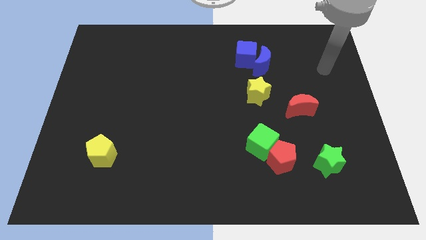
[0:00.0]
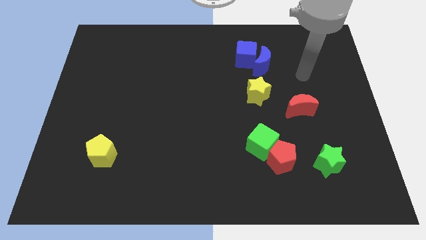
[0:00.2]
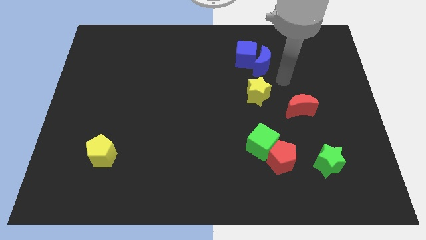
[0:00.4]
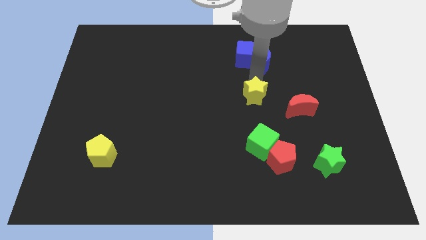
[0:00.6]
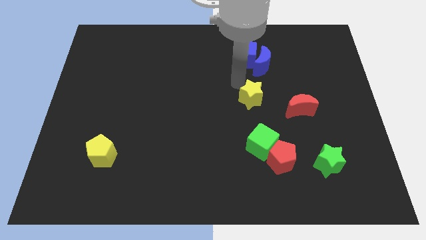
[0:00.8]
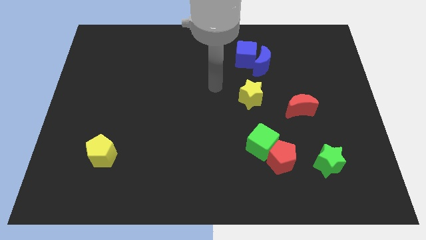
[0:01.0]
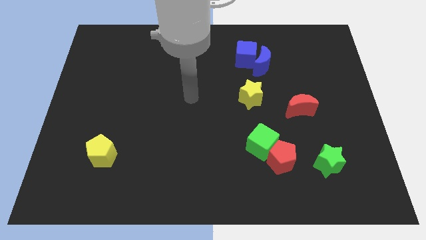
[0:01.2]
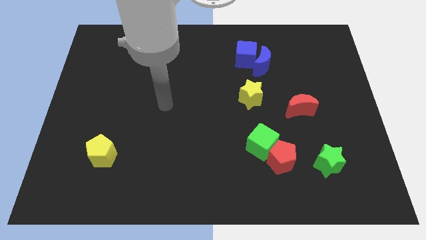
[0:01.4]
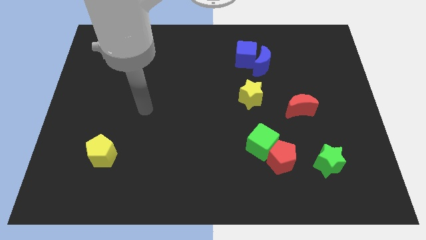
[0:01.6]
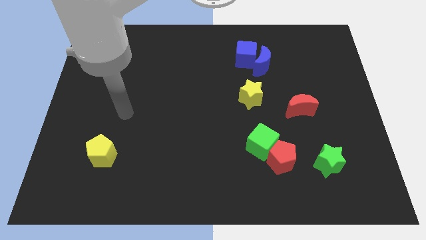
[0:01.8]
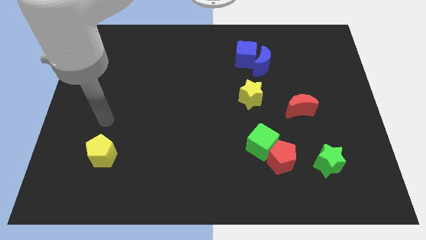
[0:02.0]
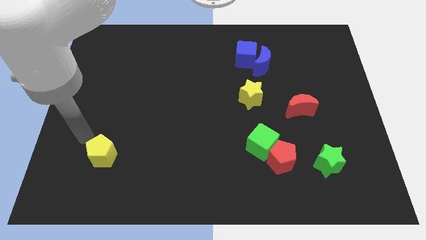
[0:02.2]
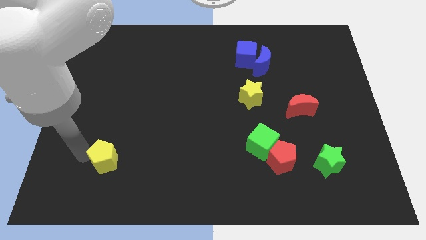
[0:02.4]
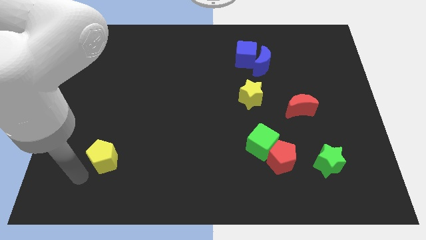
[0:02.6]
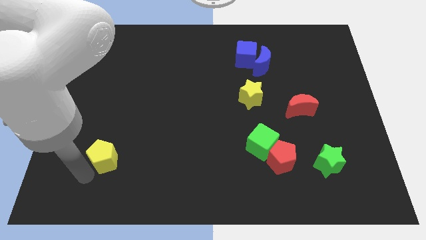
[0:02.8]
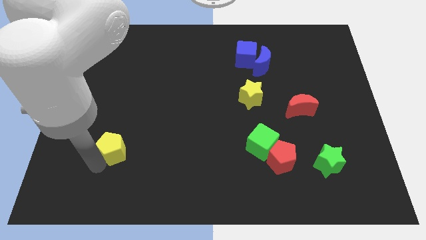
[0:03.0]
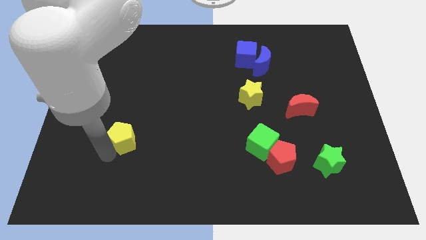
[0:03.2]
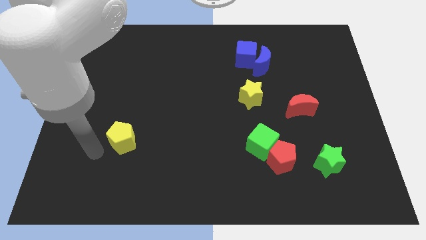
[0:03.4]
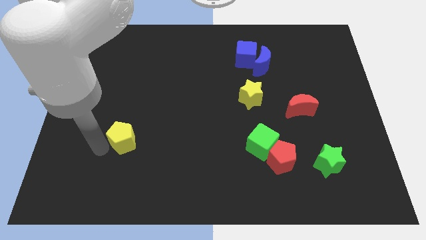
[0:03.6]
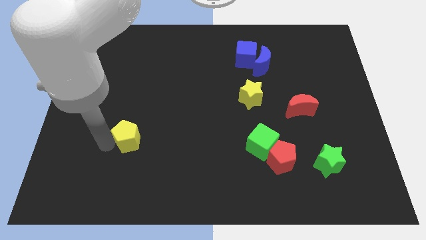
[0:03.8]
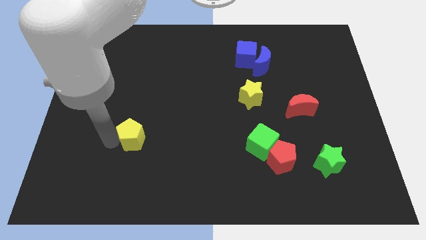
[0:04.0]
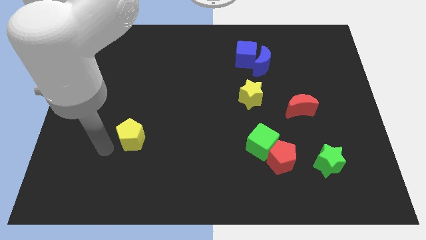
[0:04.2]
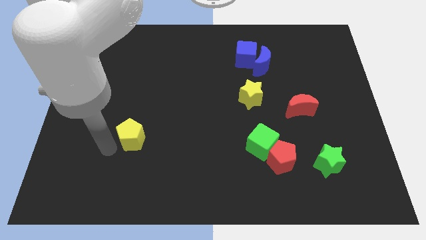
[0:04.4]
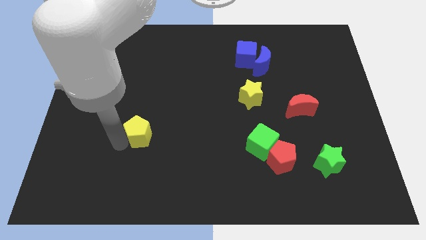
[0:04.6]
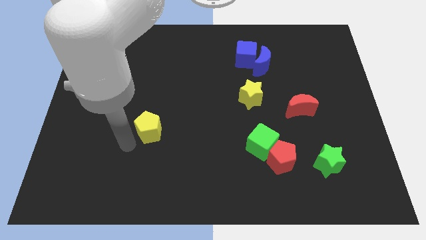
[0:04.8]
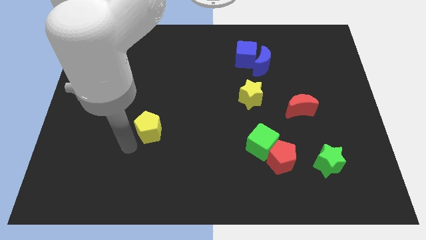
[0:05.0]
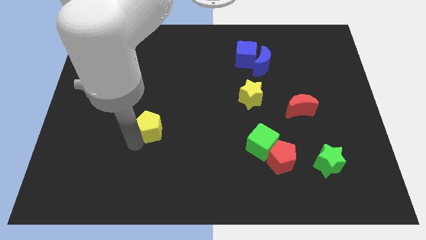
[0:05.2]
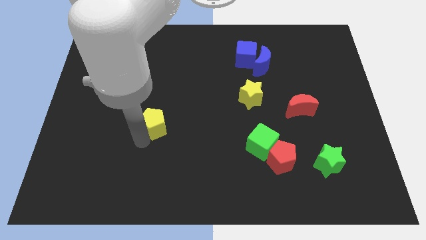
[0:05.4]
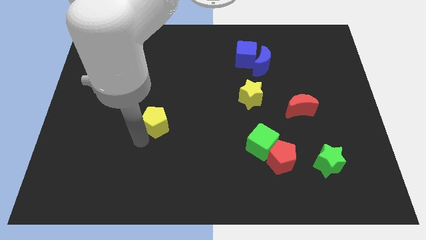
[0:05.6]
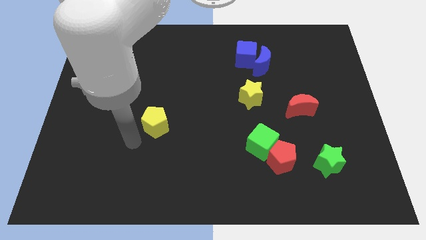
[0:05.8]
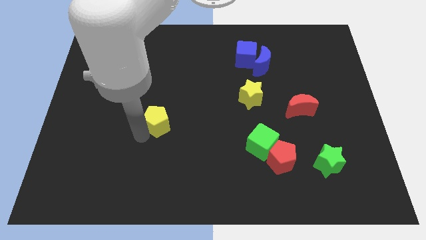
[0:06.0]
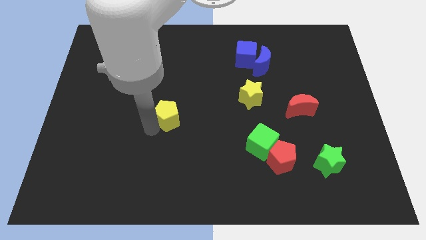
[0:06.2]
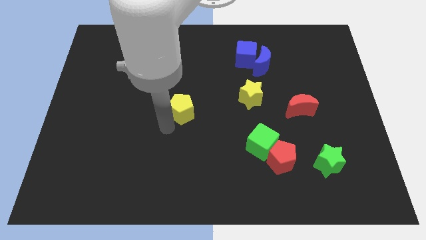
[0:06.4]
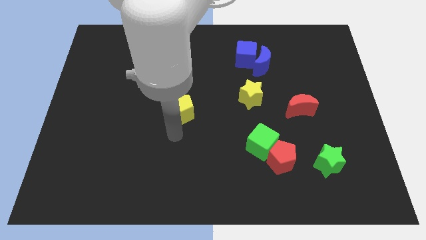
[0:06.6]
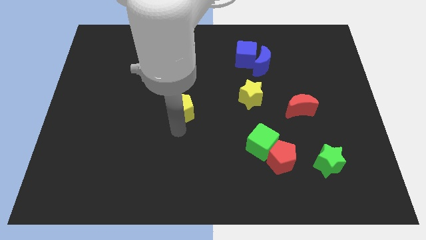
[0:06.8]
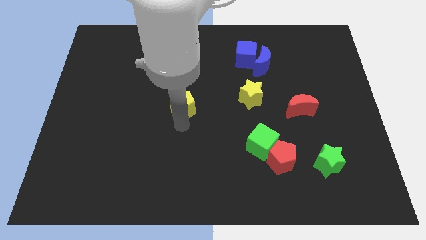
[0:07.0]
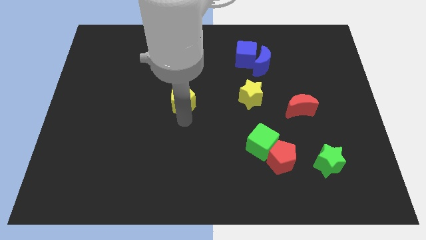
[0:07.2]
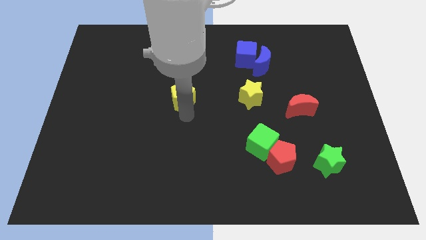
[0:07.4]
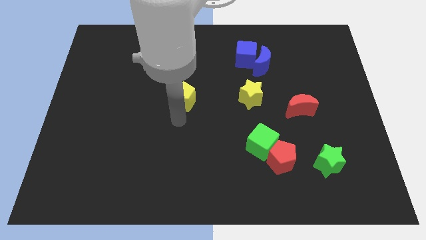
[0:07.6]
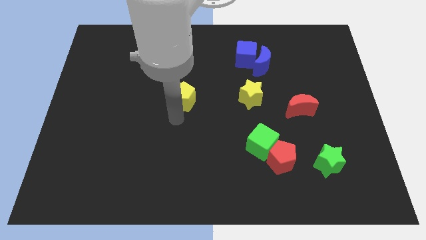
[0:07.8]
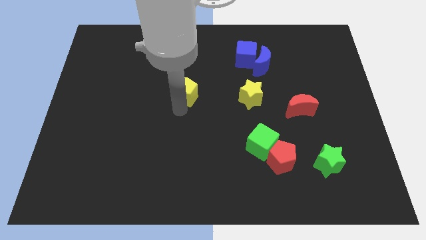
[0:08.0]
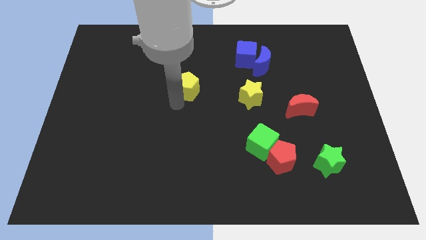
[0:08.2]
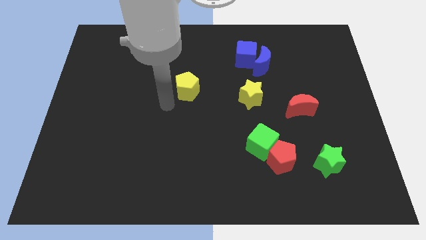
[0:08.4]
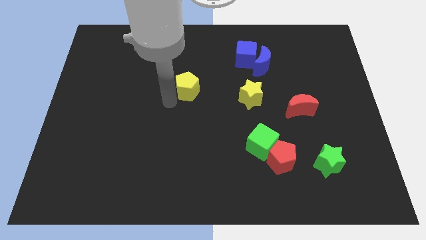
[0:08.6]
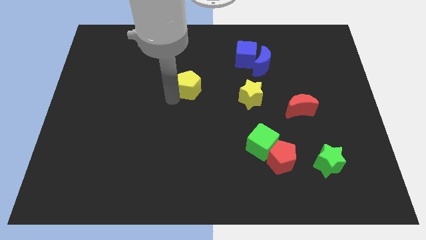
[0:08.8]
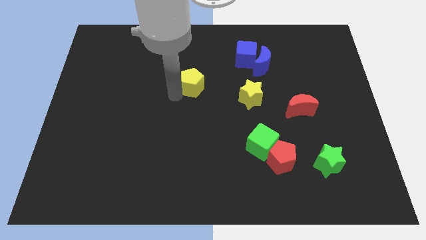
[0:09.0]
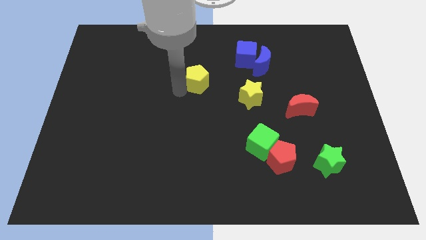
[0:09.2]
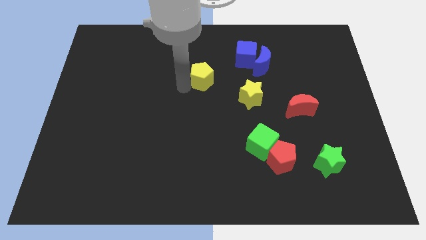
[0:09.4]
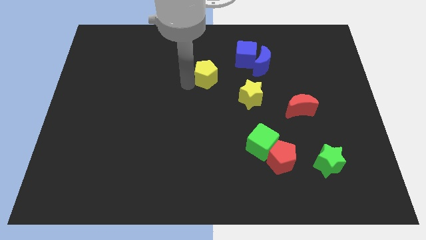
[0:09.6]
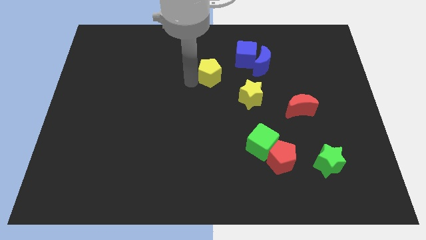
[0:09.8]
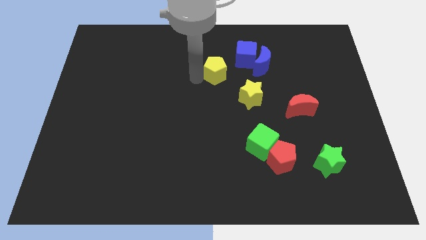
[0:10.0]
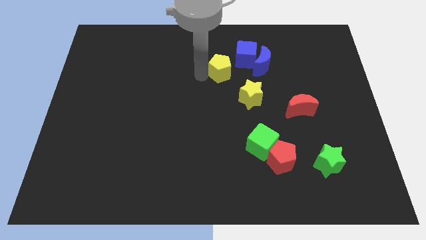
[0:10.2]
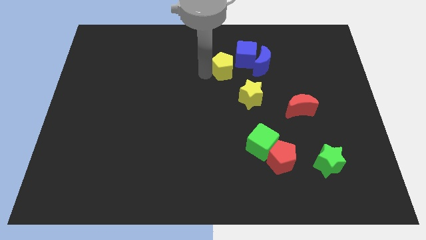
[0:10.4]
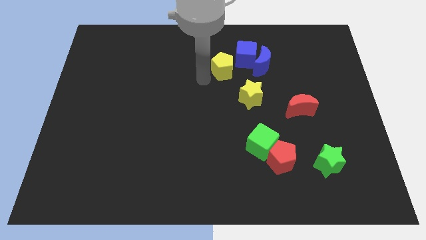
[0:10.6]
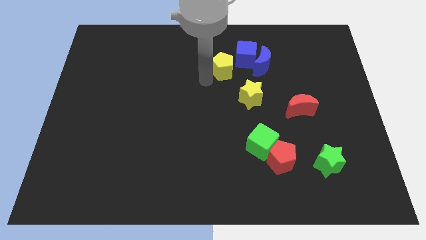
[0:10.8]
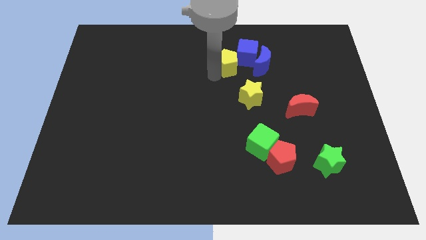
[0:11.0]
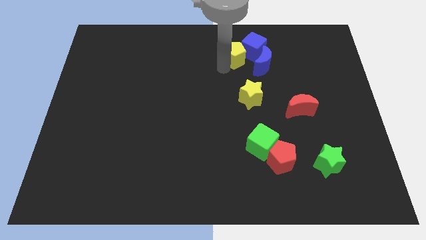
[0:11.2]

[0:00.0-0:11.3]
push the yellow pentagon next to the blue cube

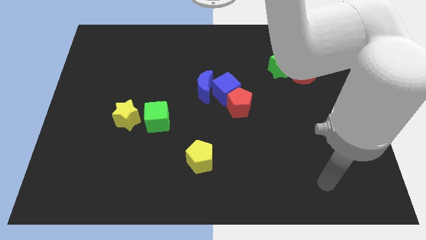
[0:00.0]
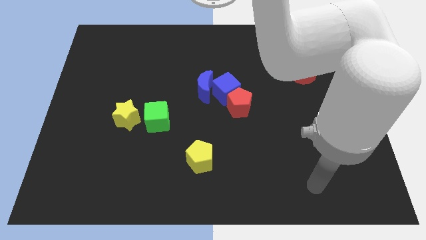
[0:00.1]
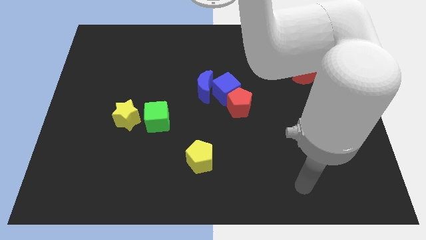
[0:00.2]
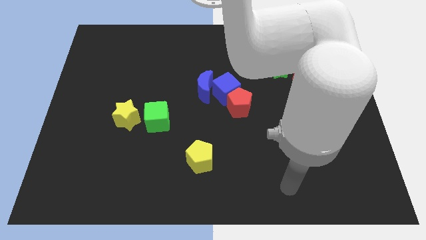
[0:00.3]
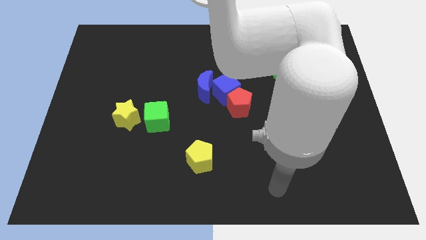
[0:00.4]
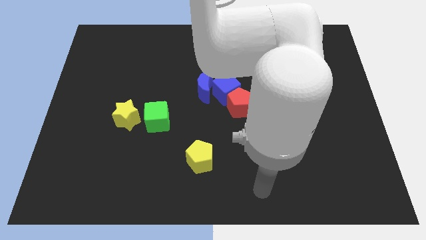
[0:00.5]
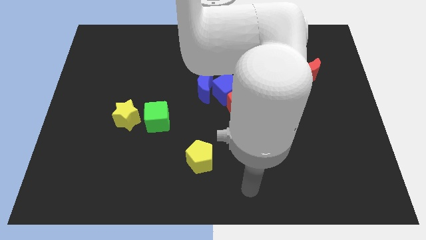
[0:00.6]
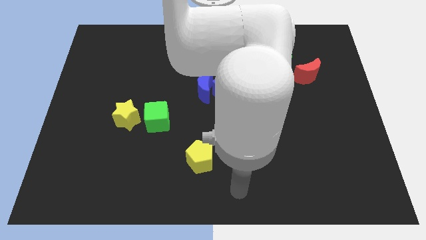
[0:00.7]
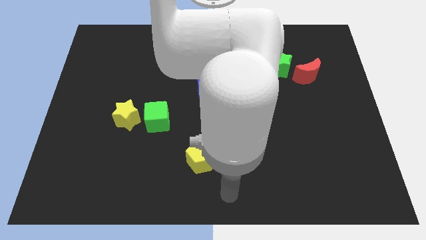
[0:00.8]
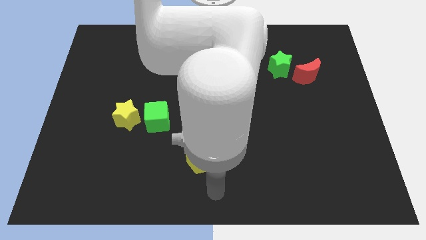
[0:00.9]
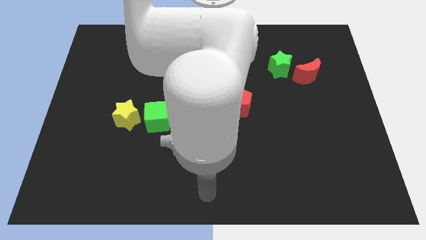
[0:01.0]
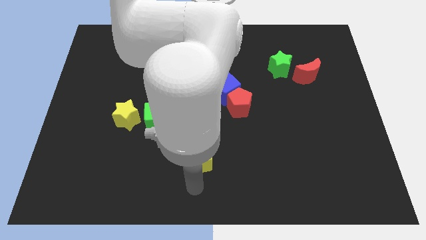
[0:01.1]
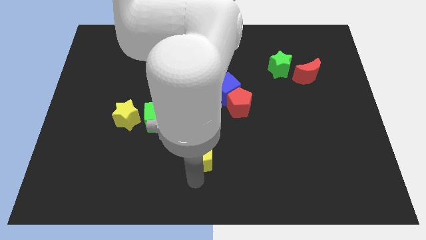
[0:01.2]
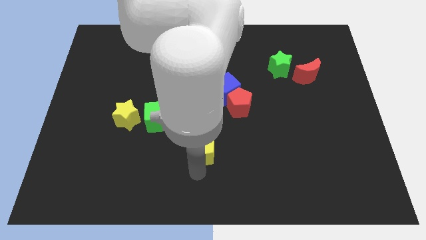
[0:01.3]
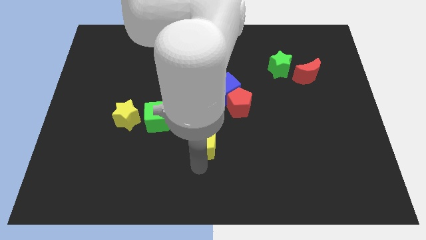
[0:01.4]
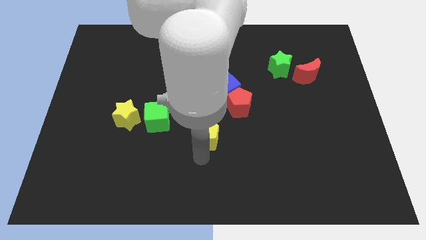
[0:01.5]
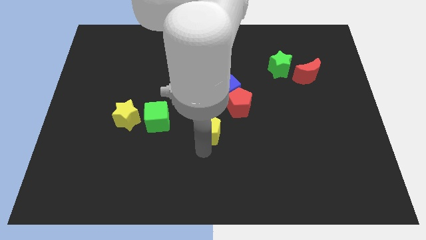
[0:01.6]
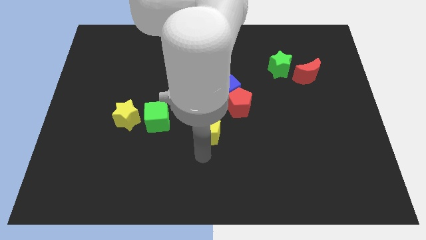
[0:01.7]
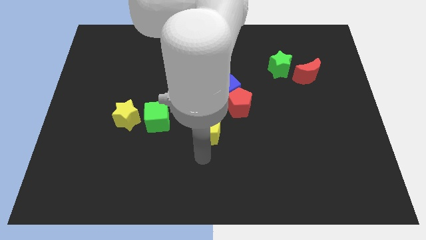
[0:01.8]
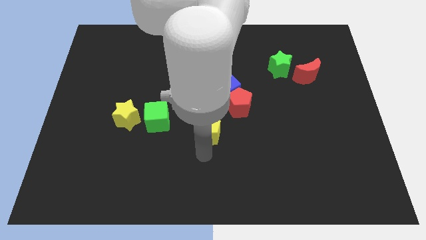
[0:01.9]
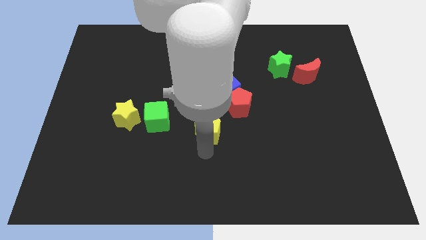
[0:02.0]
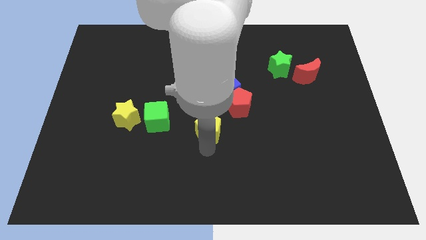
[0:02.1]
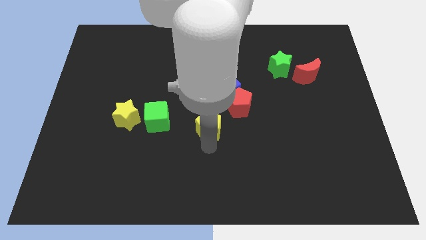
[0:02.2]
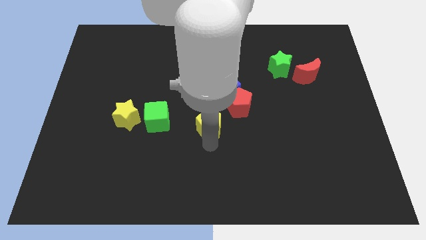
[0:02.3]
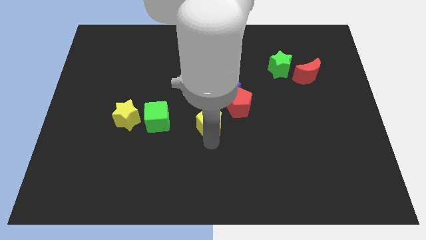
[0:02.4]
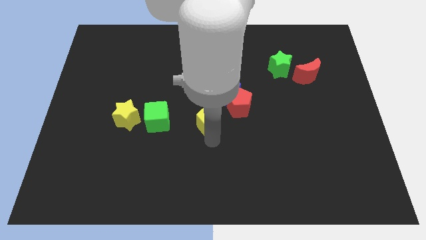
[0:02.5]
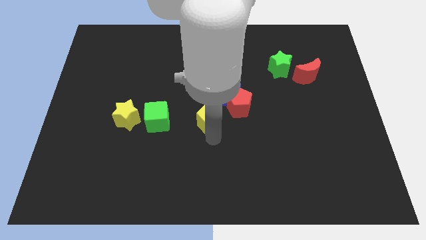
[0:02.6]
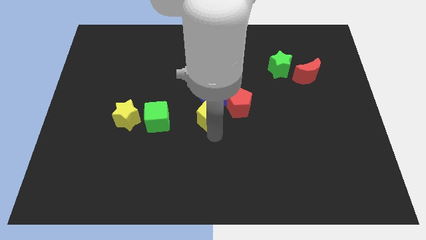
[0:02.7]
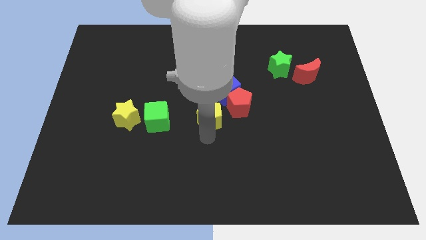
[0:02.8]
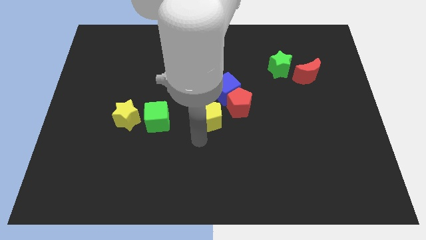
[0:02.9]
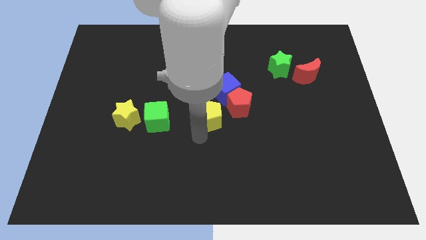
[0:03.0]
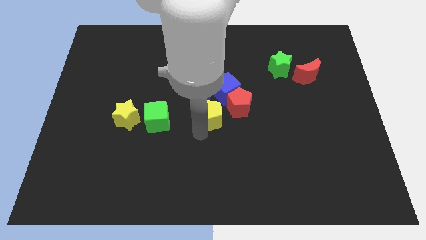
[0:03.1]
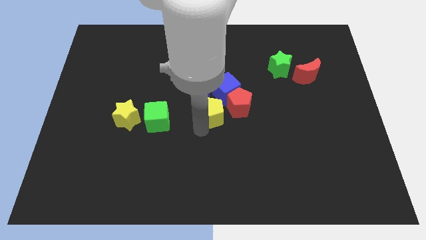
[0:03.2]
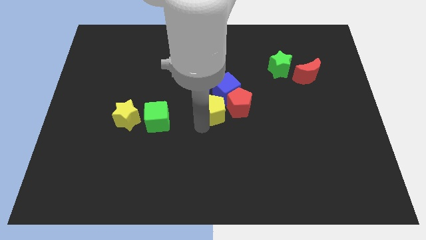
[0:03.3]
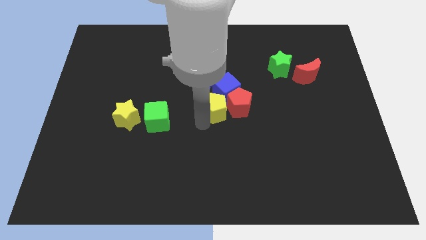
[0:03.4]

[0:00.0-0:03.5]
slide the yellow pentagon close to the blue cube
